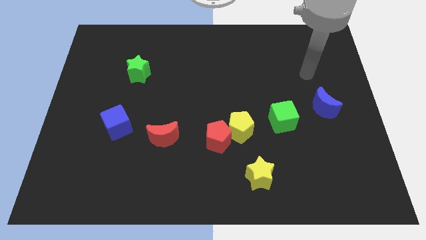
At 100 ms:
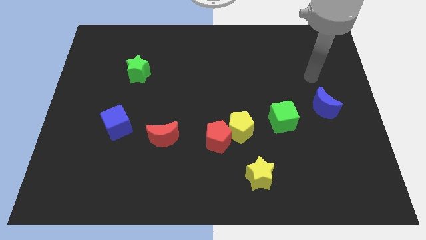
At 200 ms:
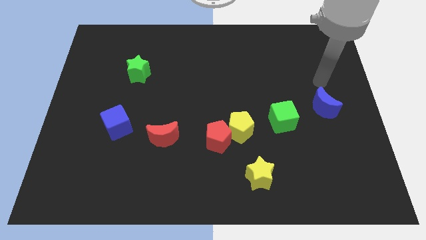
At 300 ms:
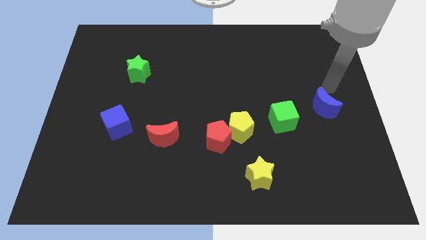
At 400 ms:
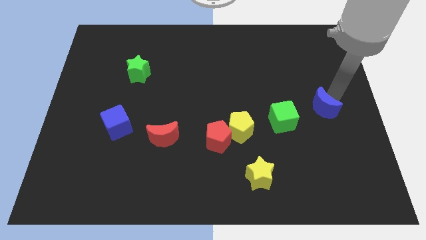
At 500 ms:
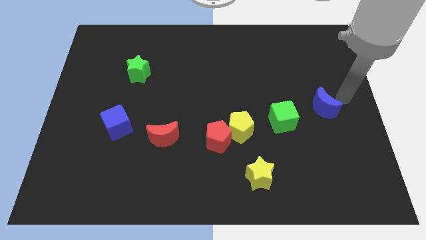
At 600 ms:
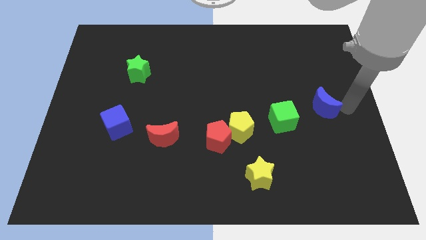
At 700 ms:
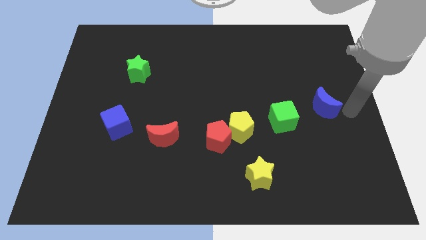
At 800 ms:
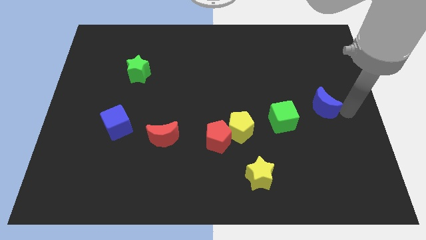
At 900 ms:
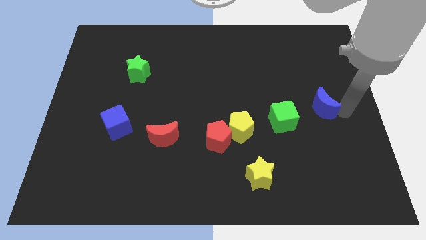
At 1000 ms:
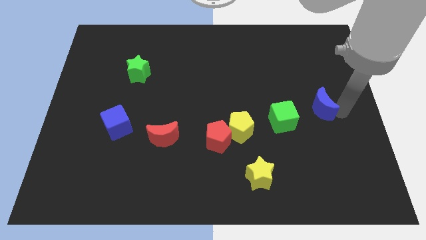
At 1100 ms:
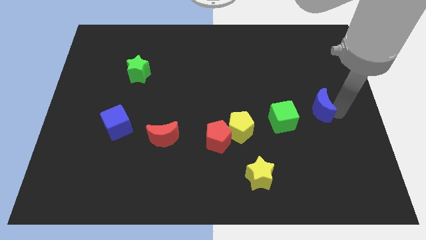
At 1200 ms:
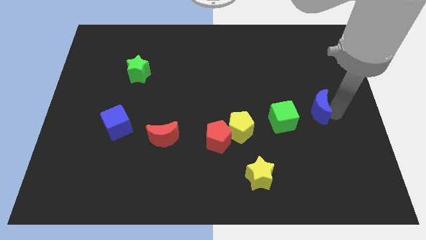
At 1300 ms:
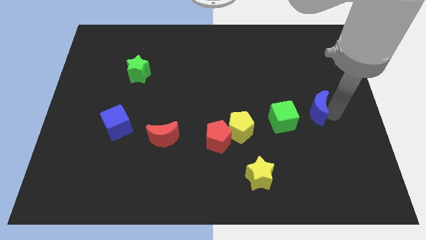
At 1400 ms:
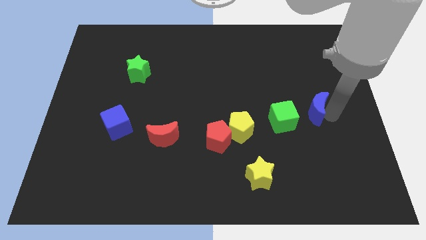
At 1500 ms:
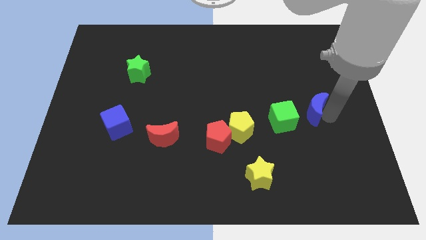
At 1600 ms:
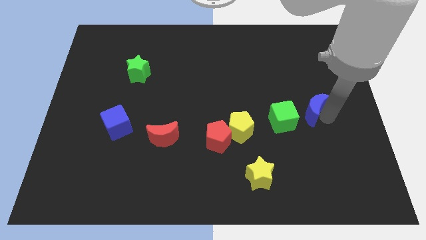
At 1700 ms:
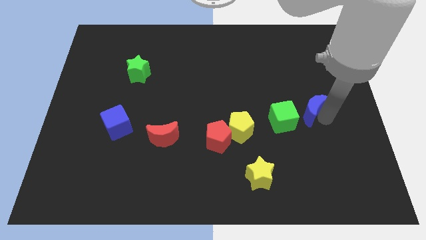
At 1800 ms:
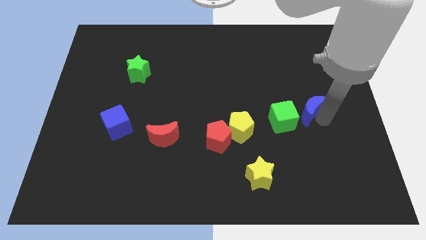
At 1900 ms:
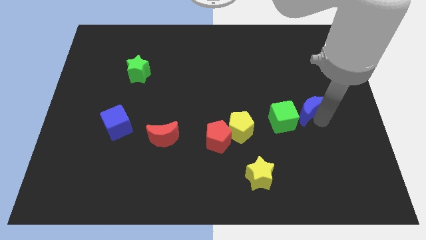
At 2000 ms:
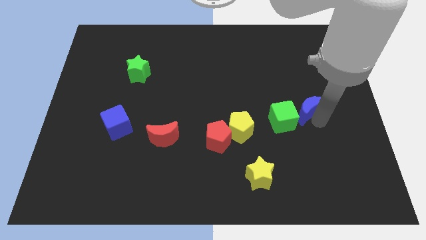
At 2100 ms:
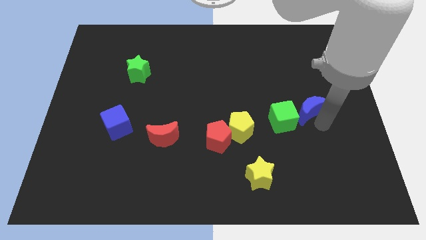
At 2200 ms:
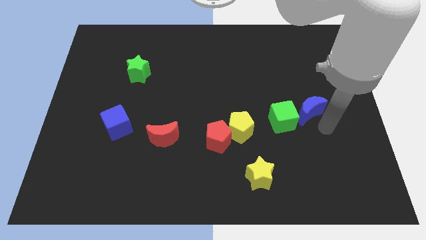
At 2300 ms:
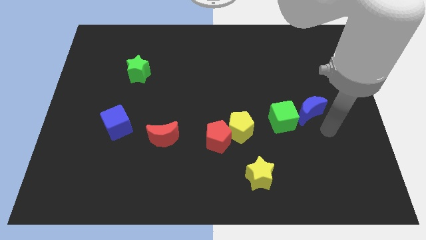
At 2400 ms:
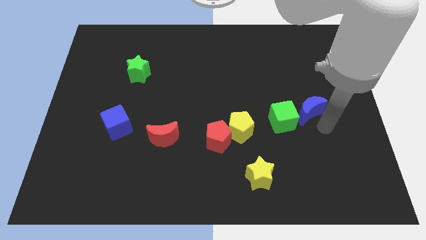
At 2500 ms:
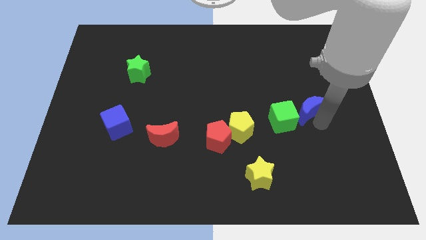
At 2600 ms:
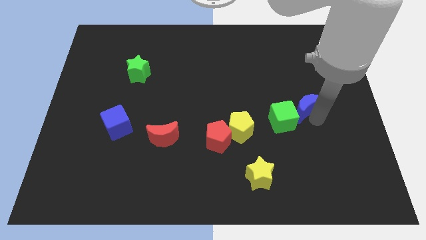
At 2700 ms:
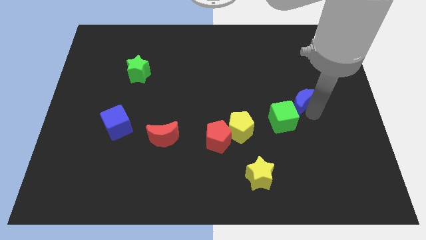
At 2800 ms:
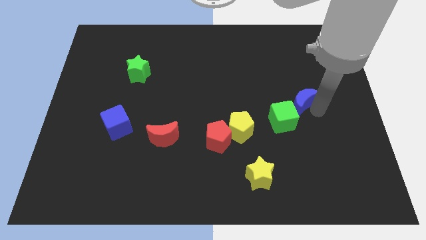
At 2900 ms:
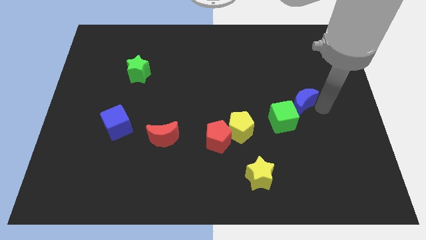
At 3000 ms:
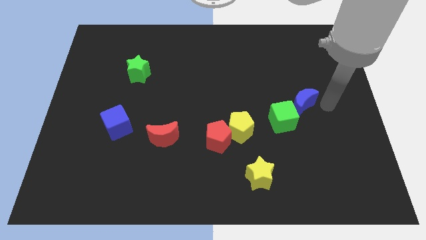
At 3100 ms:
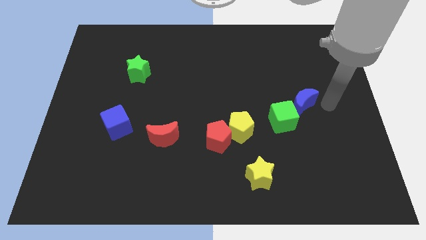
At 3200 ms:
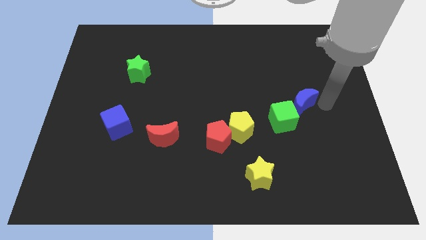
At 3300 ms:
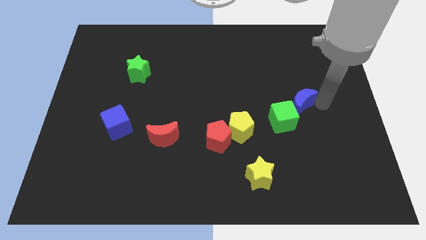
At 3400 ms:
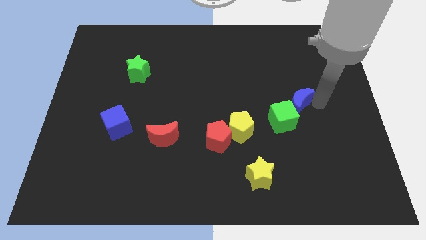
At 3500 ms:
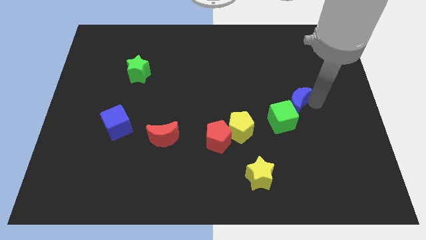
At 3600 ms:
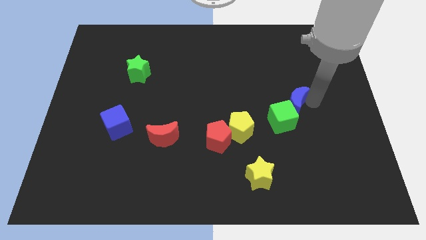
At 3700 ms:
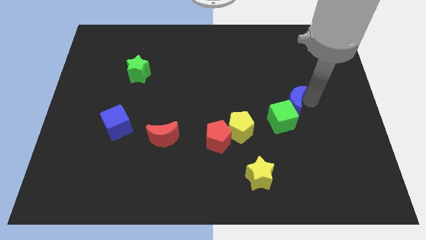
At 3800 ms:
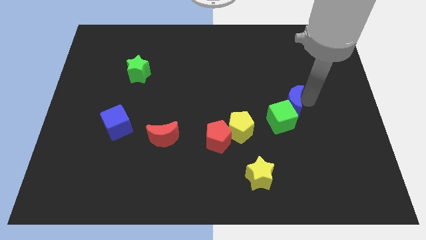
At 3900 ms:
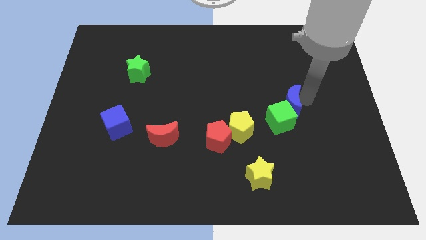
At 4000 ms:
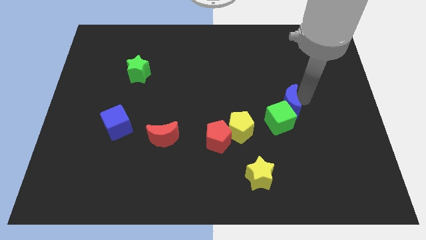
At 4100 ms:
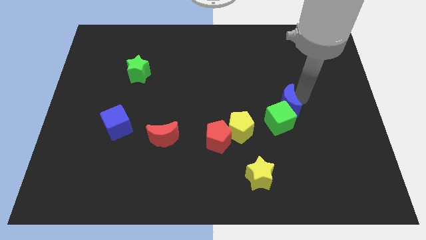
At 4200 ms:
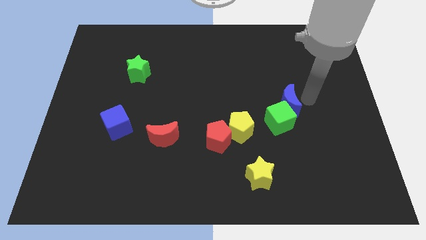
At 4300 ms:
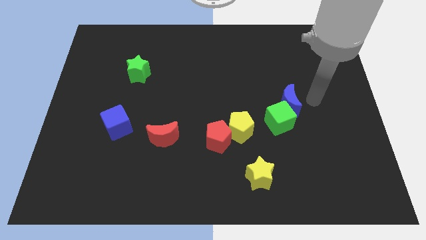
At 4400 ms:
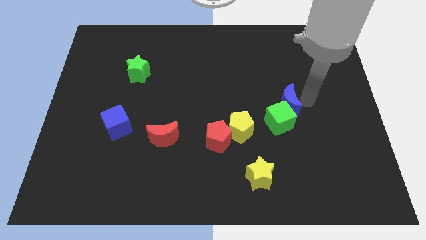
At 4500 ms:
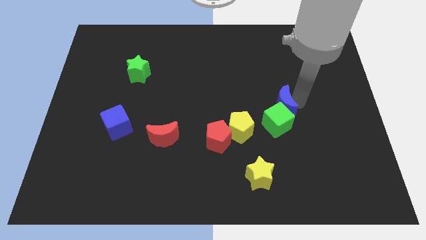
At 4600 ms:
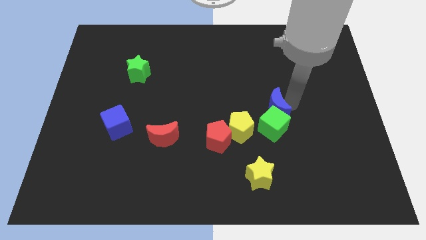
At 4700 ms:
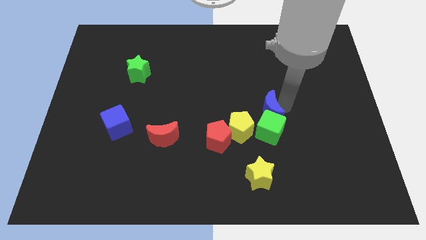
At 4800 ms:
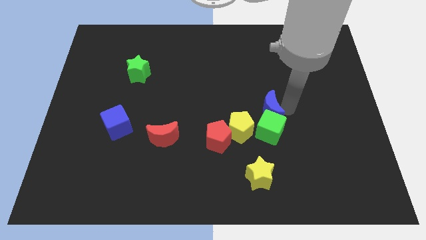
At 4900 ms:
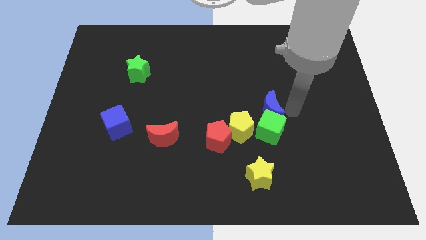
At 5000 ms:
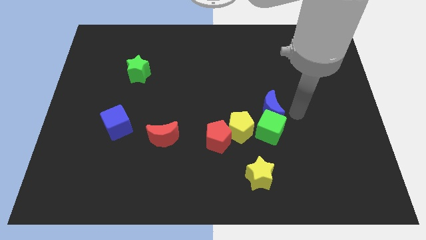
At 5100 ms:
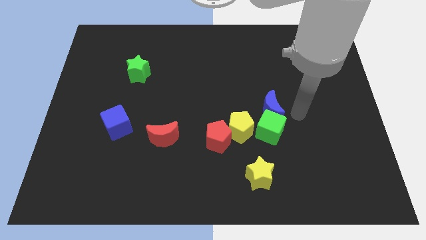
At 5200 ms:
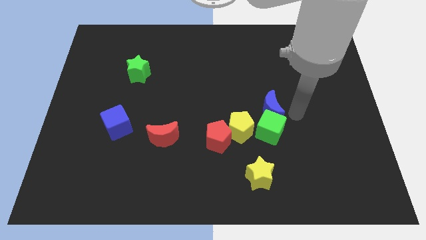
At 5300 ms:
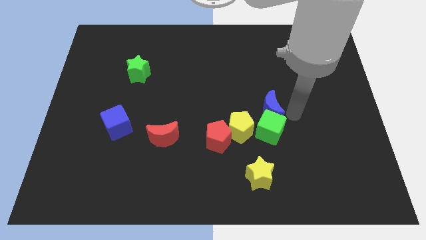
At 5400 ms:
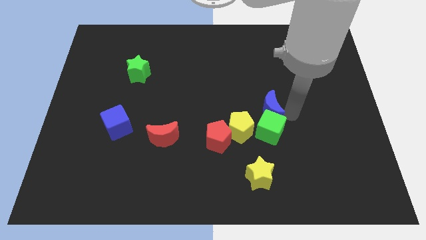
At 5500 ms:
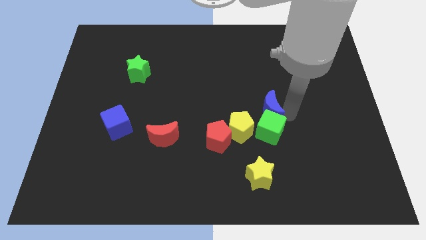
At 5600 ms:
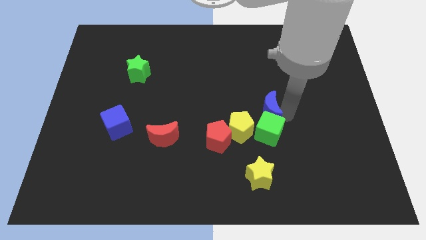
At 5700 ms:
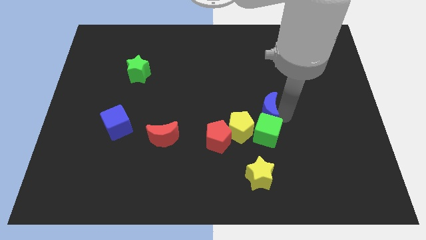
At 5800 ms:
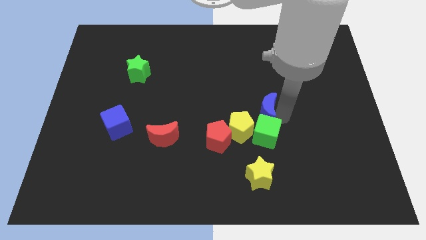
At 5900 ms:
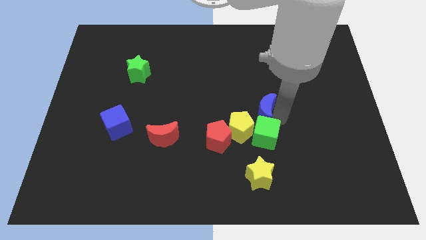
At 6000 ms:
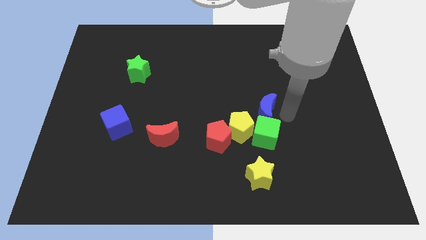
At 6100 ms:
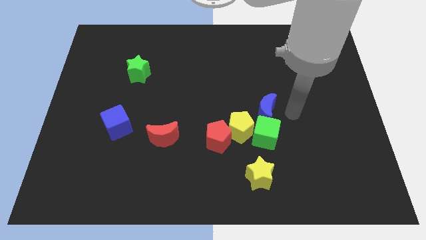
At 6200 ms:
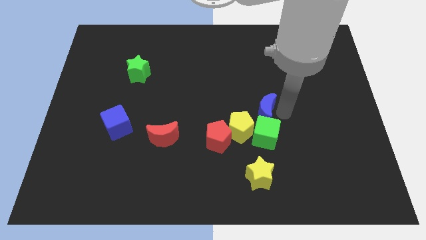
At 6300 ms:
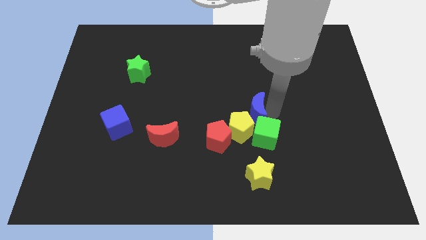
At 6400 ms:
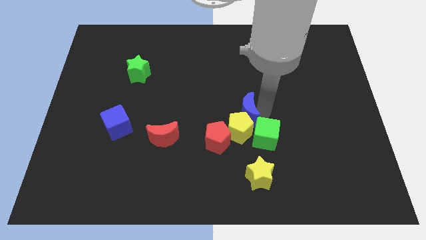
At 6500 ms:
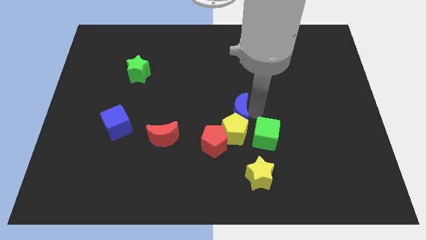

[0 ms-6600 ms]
push the blue moon diagonally up and to the left of the yellow pentagon

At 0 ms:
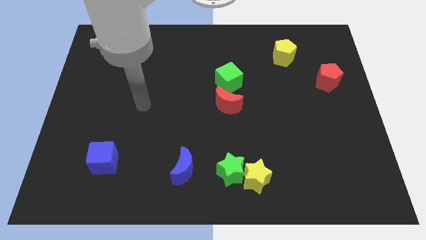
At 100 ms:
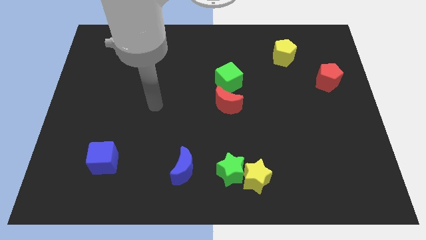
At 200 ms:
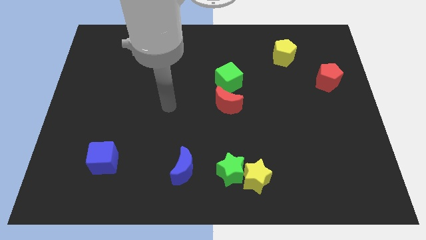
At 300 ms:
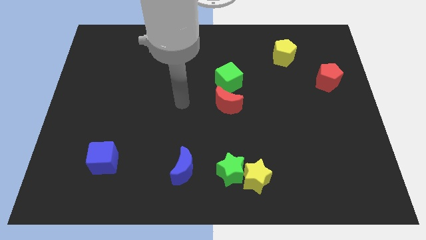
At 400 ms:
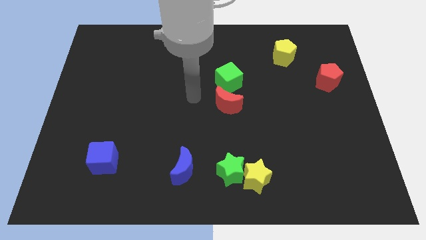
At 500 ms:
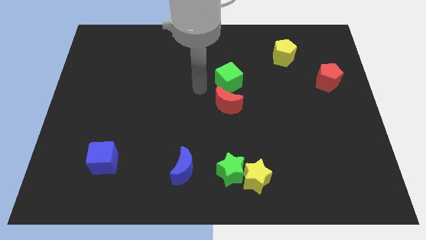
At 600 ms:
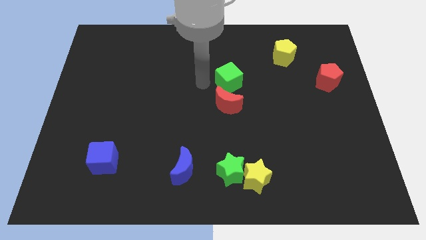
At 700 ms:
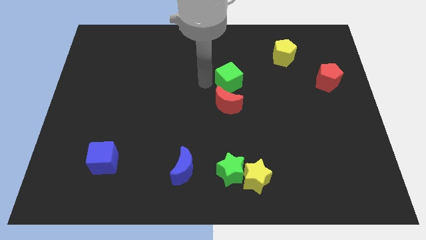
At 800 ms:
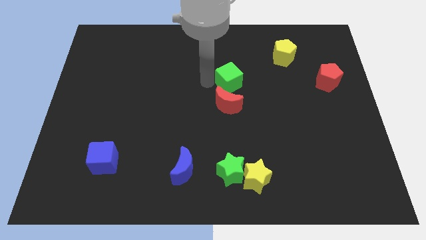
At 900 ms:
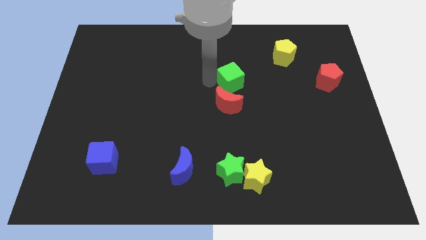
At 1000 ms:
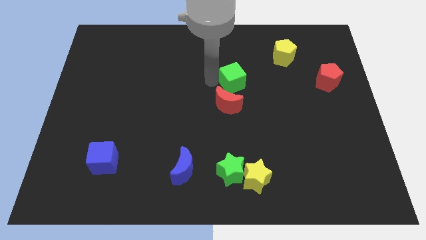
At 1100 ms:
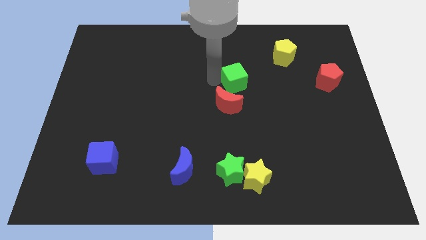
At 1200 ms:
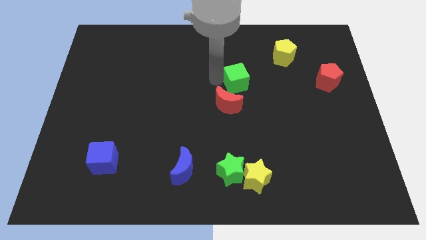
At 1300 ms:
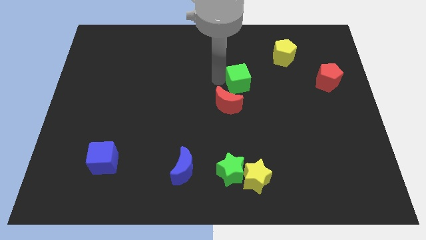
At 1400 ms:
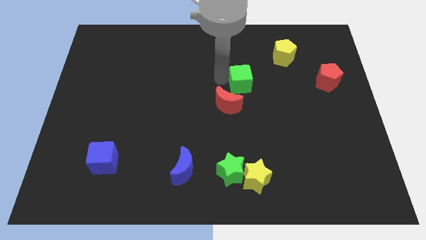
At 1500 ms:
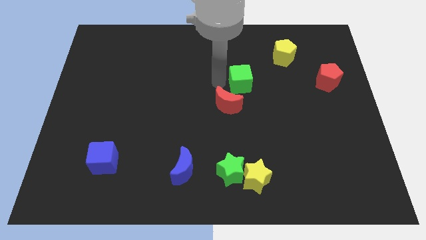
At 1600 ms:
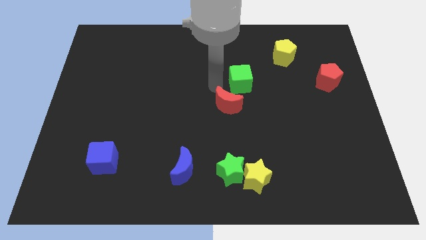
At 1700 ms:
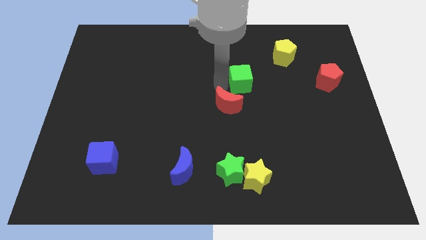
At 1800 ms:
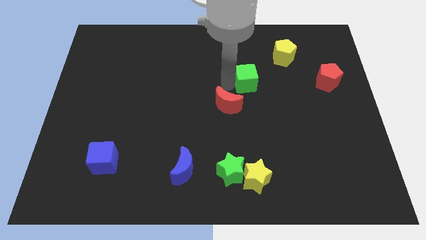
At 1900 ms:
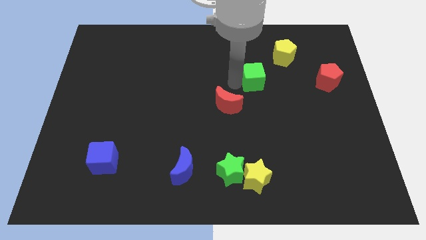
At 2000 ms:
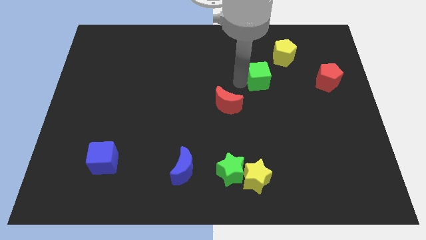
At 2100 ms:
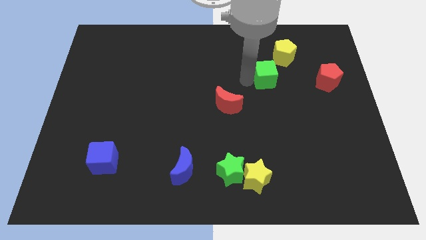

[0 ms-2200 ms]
push the green cube just left of the red pentagon
